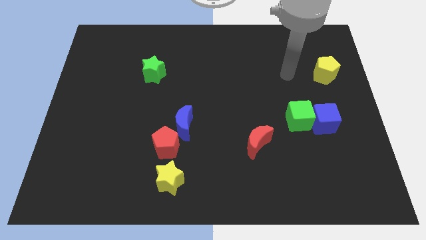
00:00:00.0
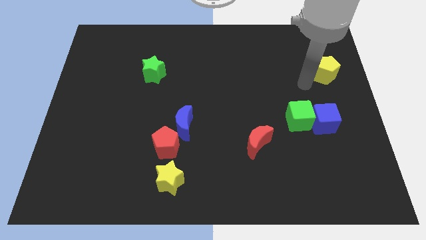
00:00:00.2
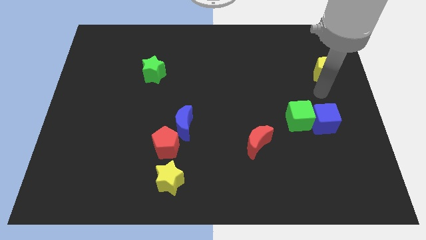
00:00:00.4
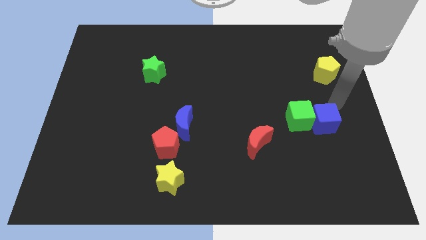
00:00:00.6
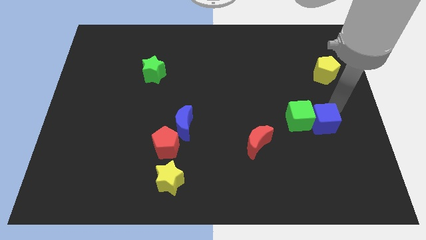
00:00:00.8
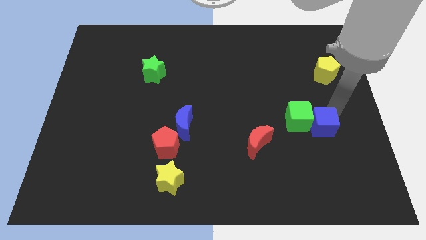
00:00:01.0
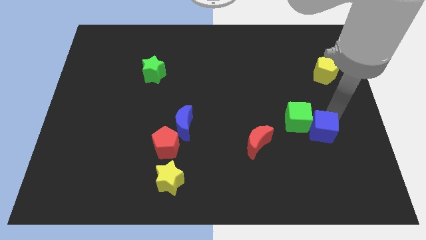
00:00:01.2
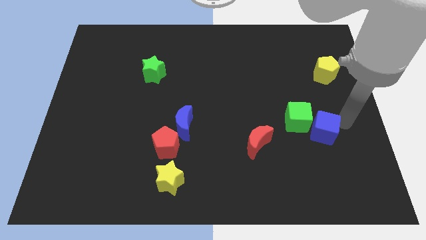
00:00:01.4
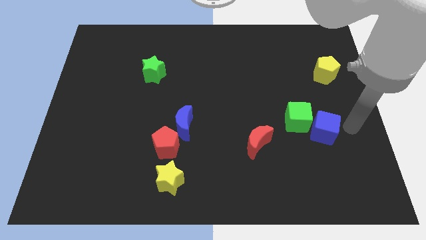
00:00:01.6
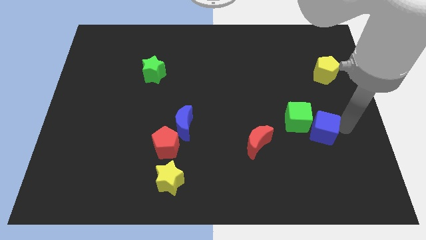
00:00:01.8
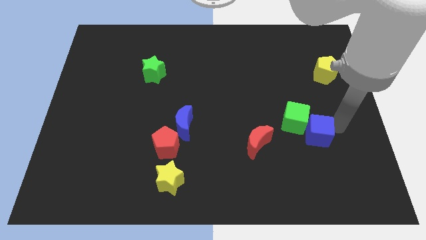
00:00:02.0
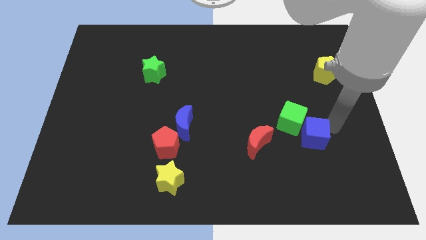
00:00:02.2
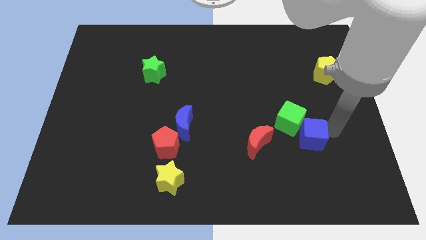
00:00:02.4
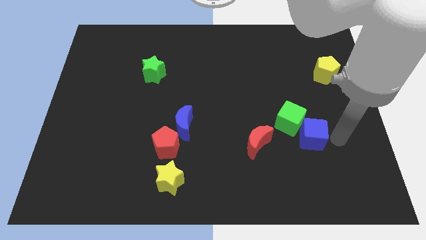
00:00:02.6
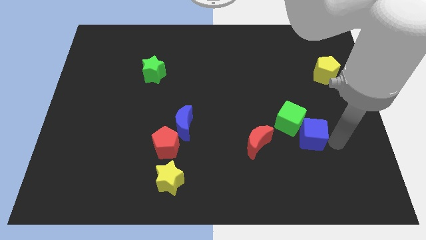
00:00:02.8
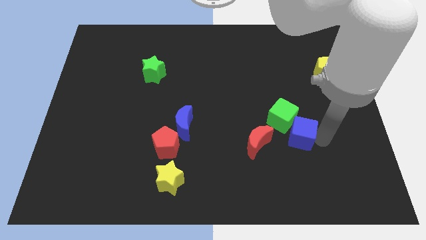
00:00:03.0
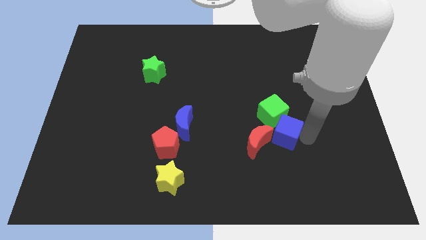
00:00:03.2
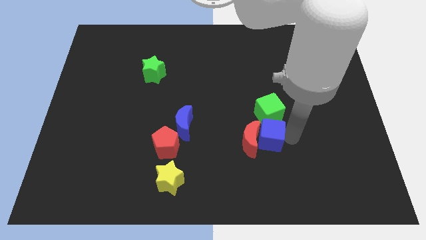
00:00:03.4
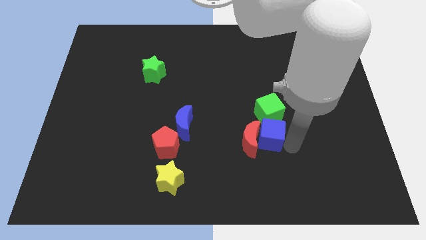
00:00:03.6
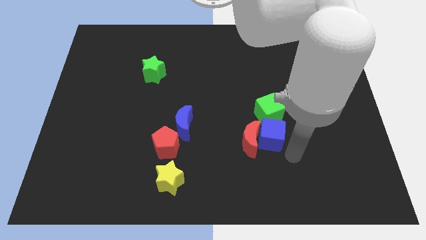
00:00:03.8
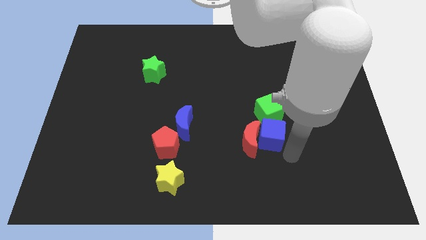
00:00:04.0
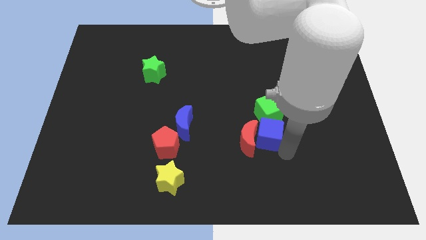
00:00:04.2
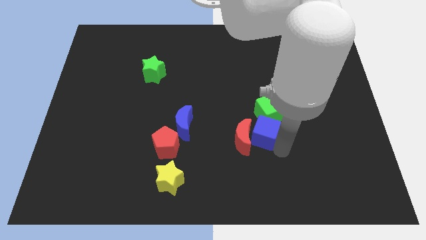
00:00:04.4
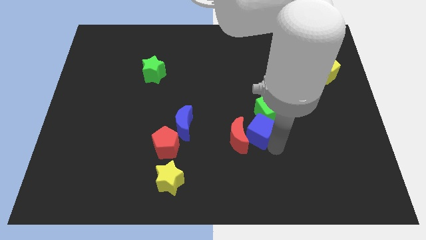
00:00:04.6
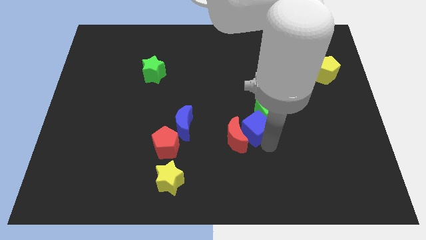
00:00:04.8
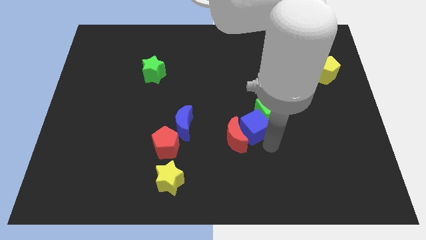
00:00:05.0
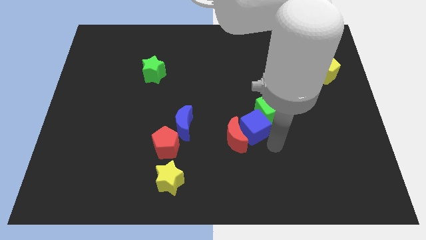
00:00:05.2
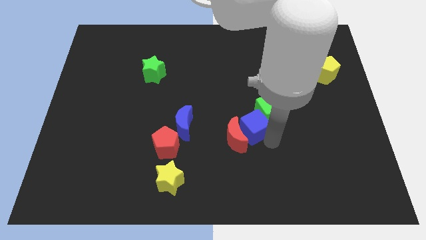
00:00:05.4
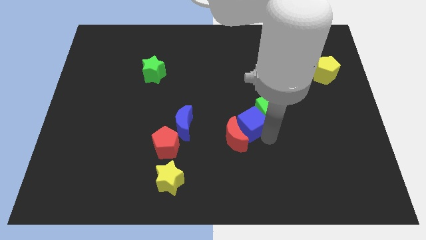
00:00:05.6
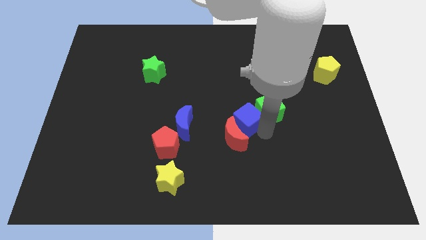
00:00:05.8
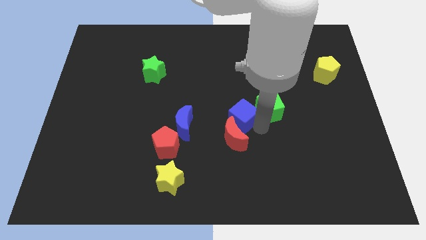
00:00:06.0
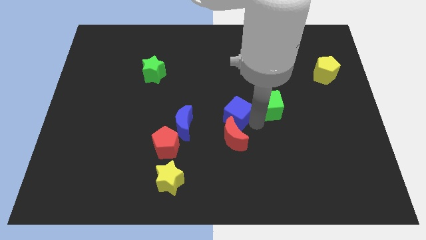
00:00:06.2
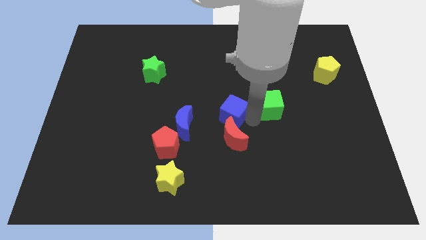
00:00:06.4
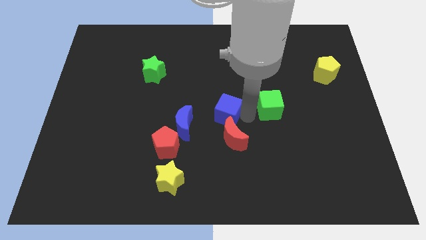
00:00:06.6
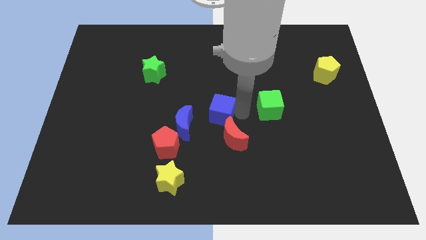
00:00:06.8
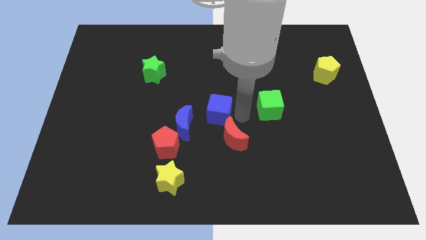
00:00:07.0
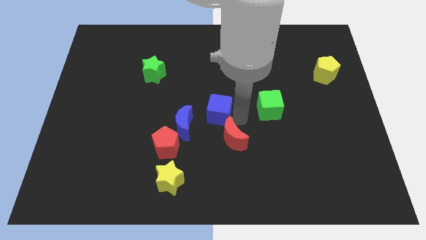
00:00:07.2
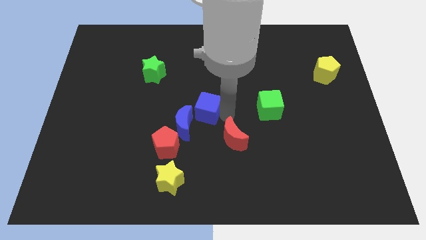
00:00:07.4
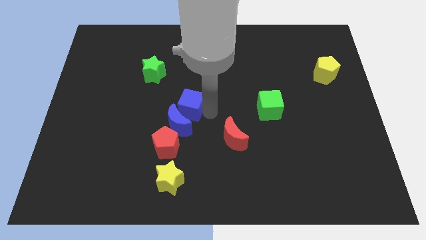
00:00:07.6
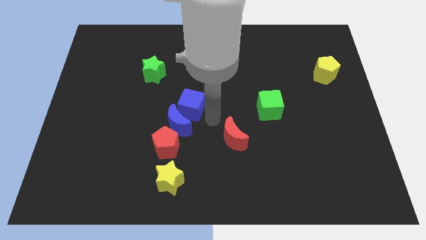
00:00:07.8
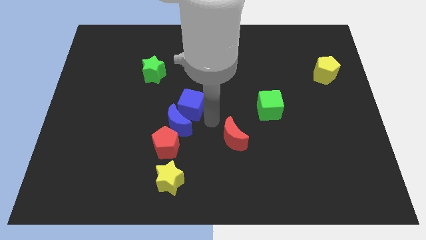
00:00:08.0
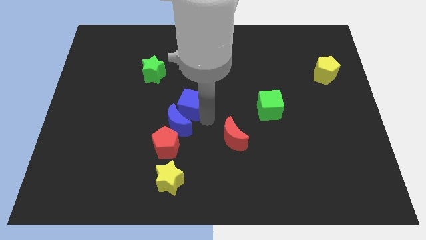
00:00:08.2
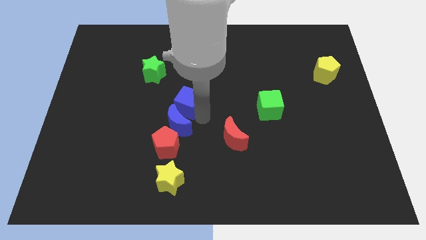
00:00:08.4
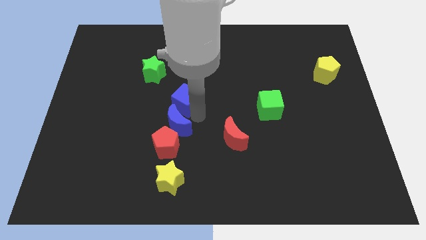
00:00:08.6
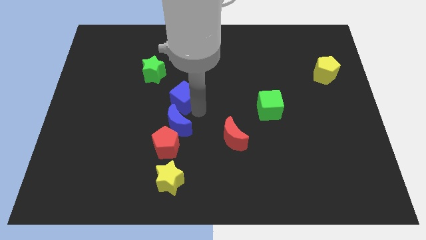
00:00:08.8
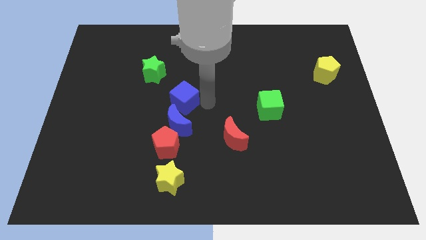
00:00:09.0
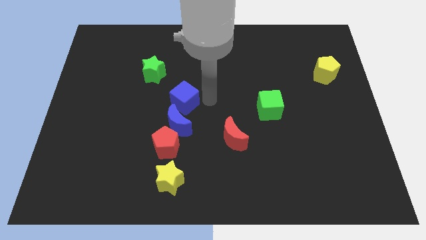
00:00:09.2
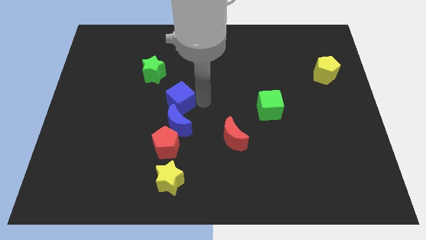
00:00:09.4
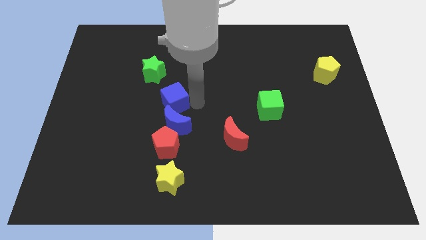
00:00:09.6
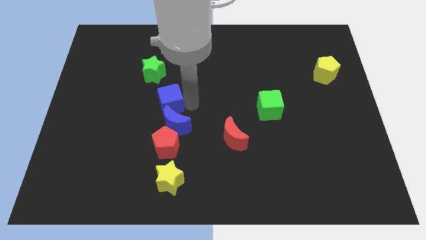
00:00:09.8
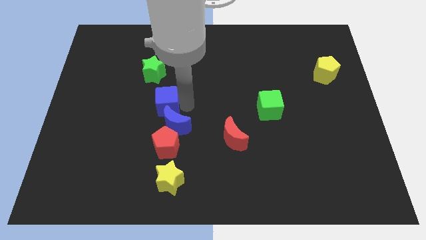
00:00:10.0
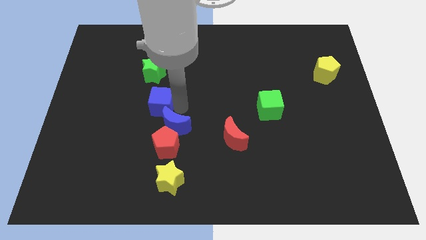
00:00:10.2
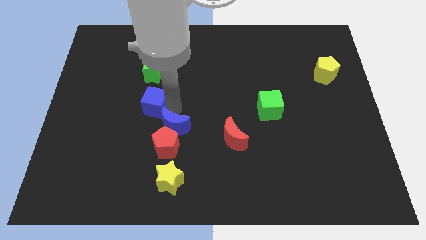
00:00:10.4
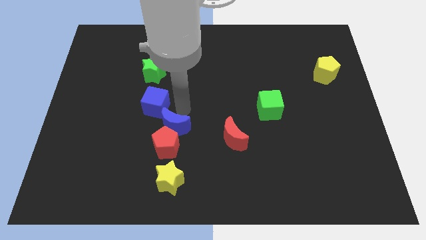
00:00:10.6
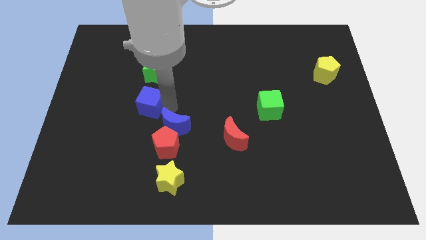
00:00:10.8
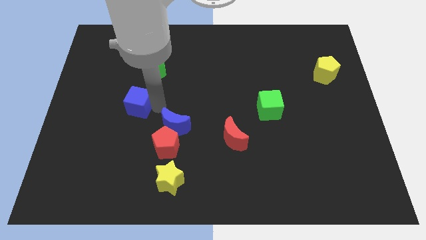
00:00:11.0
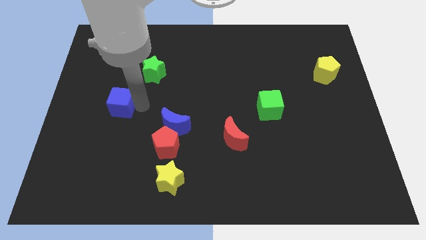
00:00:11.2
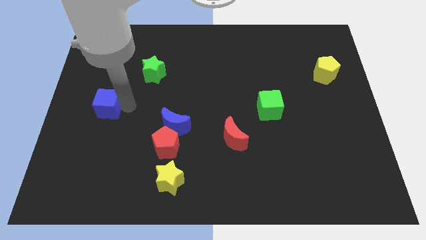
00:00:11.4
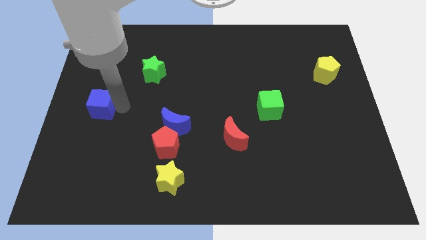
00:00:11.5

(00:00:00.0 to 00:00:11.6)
push the blue cube to the left side

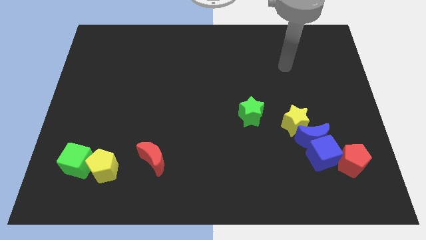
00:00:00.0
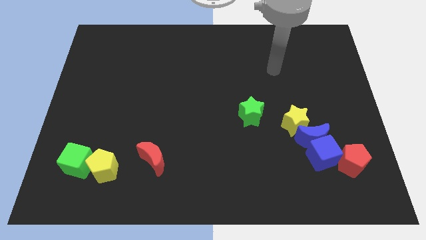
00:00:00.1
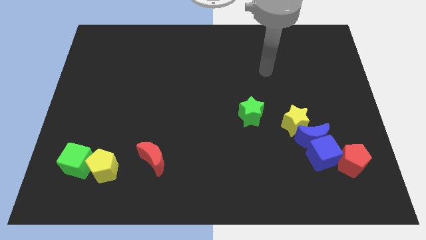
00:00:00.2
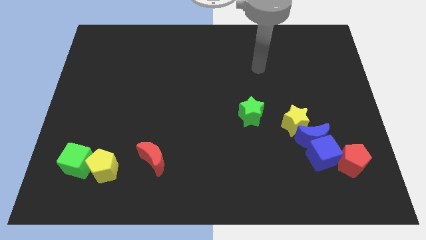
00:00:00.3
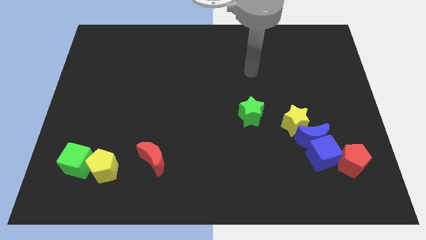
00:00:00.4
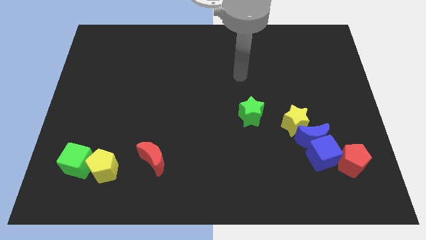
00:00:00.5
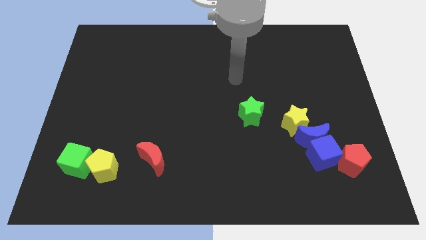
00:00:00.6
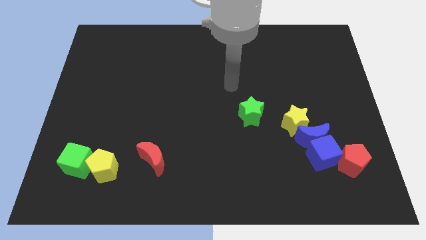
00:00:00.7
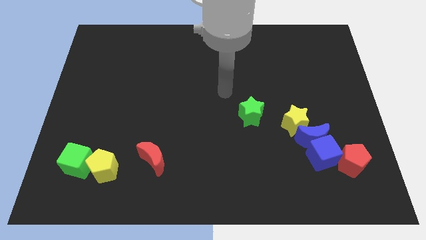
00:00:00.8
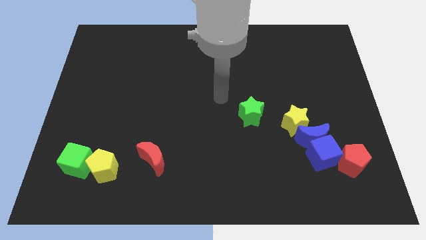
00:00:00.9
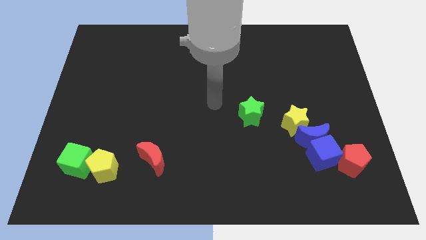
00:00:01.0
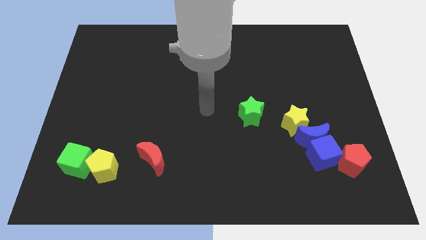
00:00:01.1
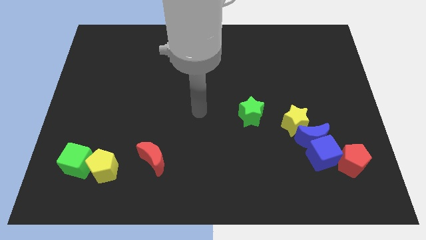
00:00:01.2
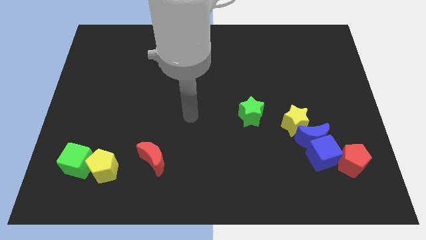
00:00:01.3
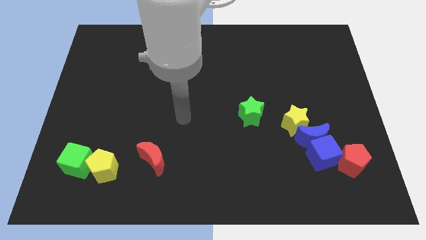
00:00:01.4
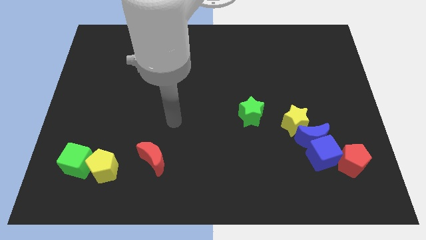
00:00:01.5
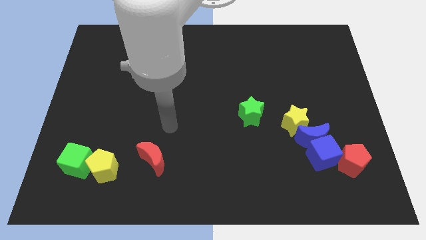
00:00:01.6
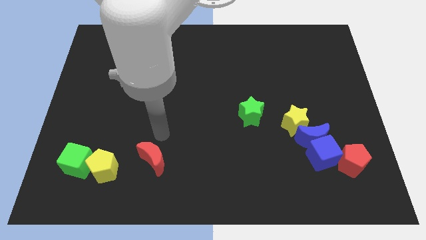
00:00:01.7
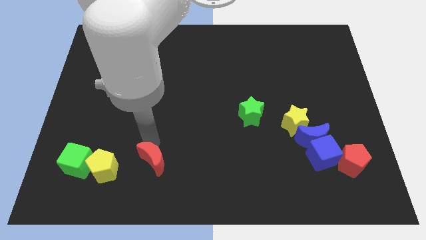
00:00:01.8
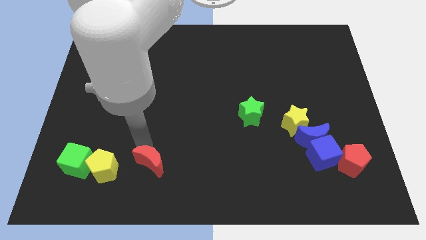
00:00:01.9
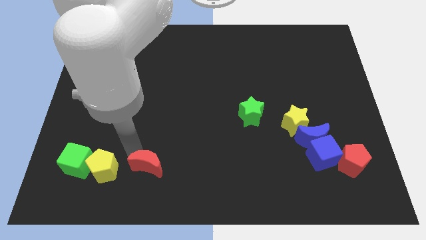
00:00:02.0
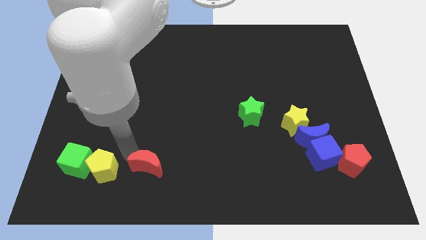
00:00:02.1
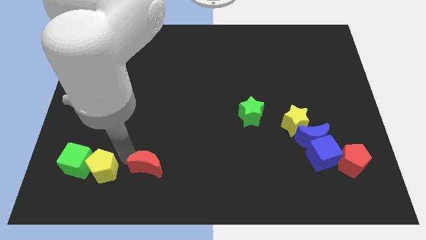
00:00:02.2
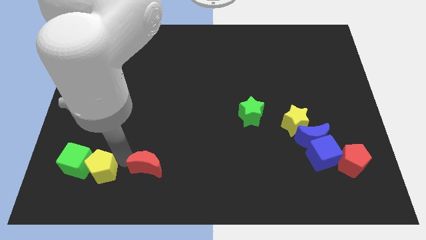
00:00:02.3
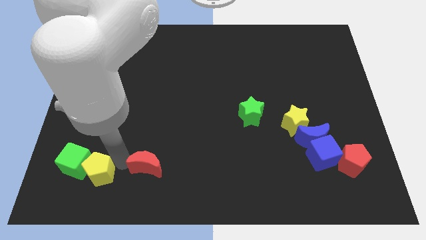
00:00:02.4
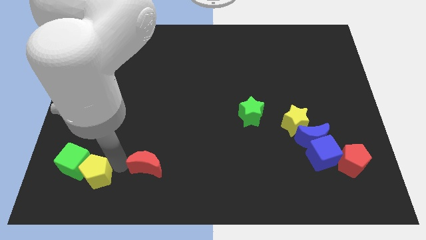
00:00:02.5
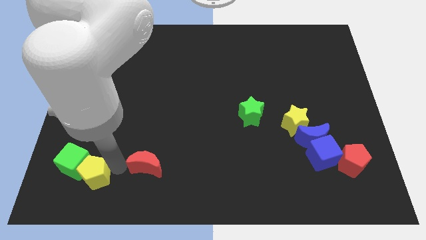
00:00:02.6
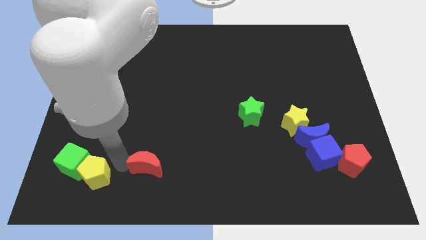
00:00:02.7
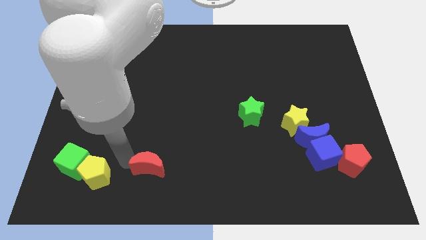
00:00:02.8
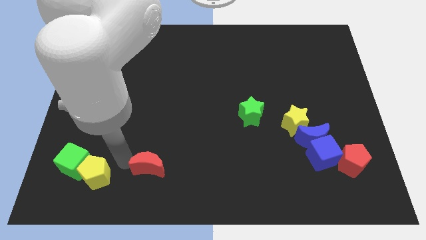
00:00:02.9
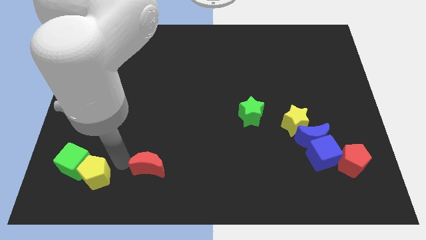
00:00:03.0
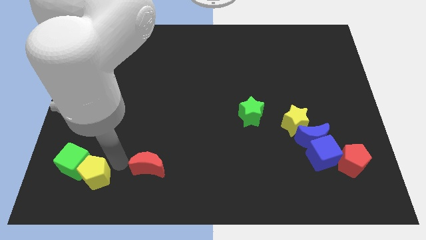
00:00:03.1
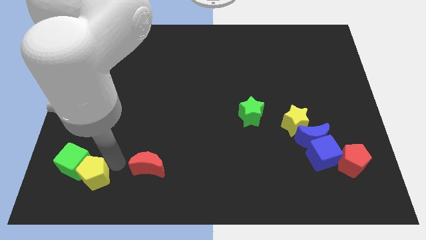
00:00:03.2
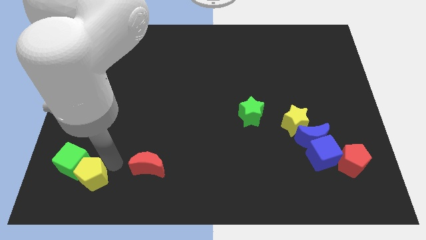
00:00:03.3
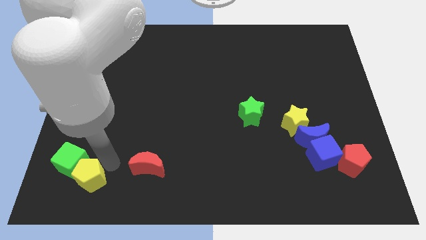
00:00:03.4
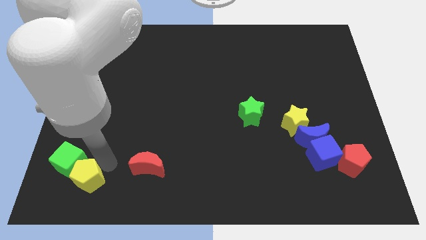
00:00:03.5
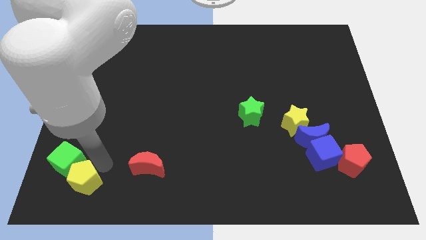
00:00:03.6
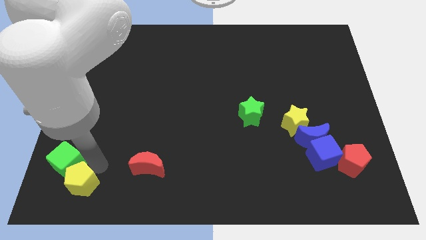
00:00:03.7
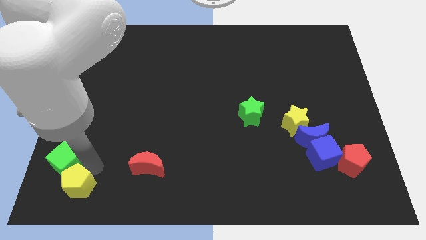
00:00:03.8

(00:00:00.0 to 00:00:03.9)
move the yellow pentagon to the bottom left
